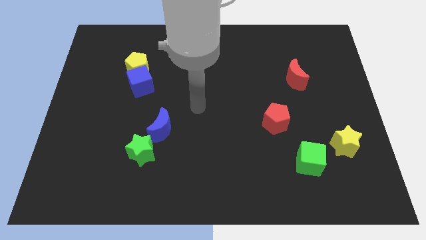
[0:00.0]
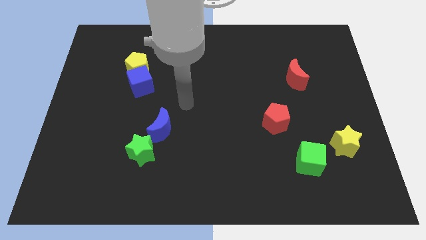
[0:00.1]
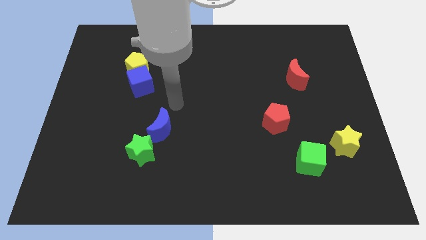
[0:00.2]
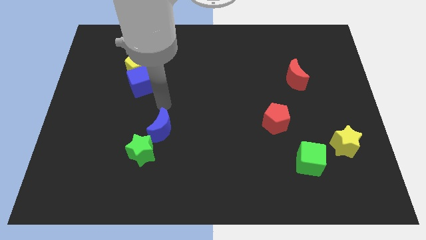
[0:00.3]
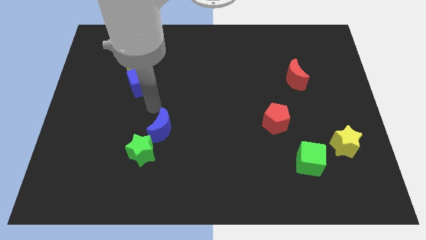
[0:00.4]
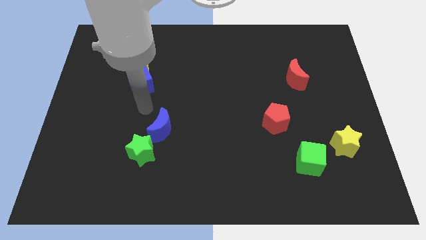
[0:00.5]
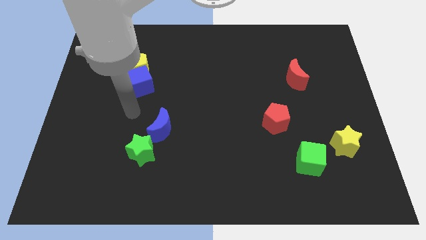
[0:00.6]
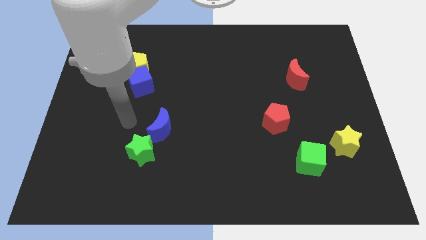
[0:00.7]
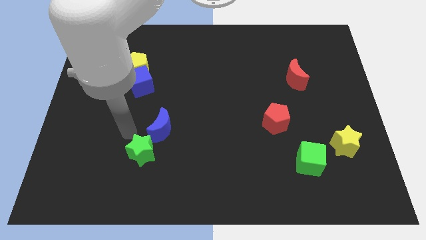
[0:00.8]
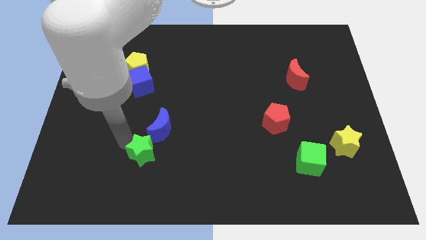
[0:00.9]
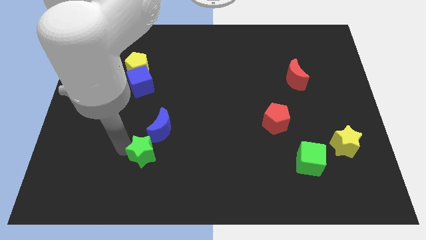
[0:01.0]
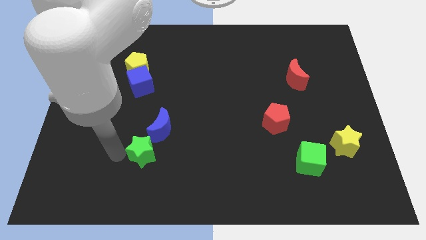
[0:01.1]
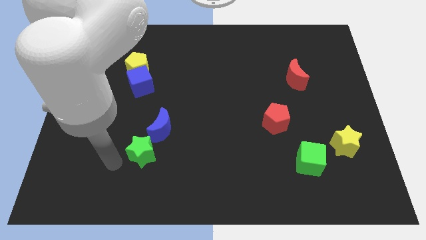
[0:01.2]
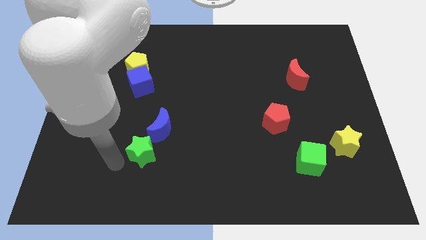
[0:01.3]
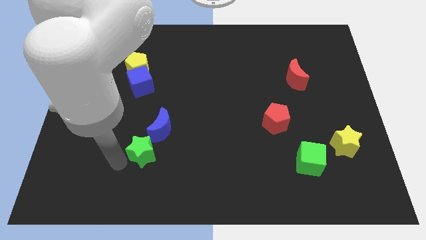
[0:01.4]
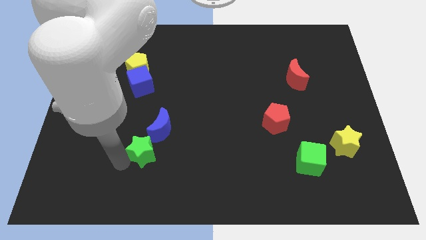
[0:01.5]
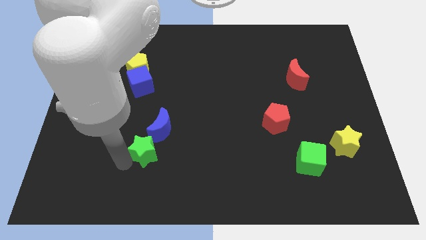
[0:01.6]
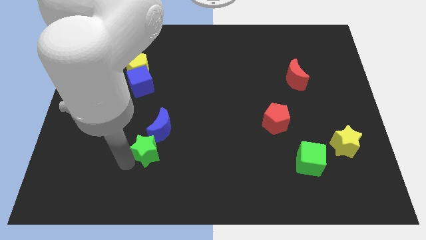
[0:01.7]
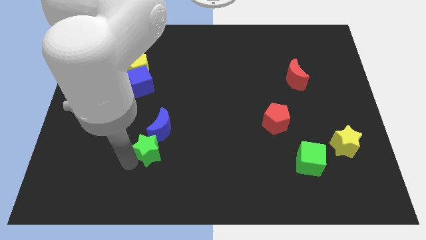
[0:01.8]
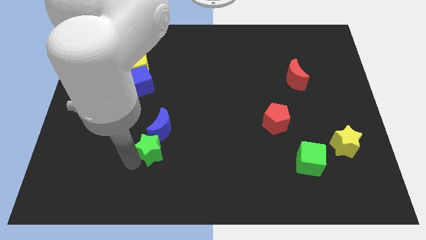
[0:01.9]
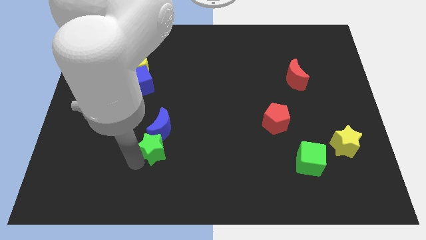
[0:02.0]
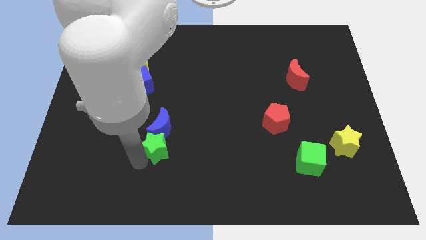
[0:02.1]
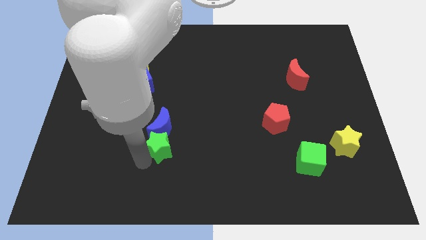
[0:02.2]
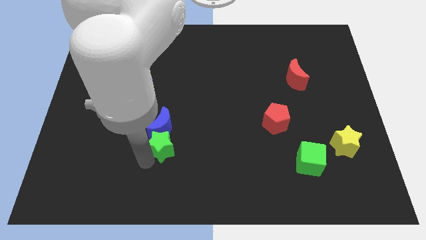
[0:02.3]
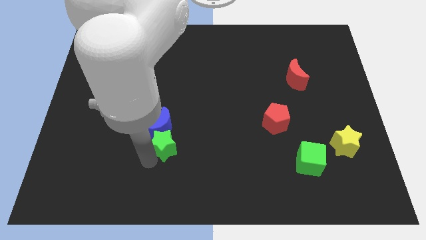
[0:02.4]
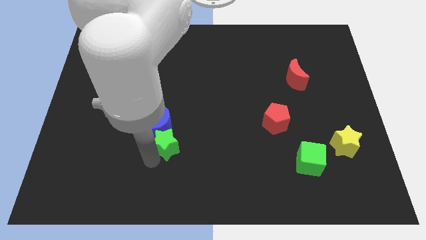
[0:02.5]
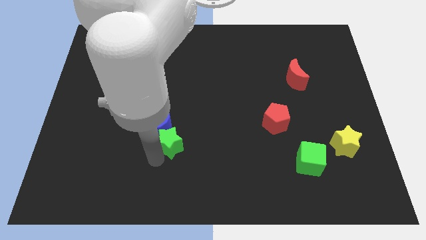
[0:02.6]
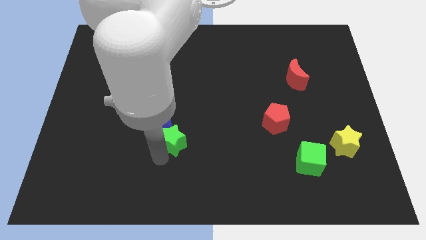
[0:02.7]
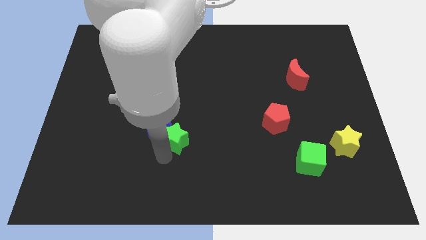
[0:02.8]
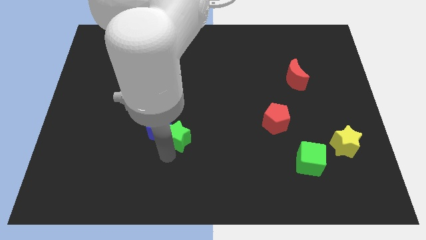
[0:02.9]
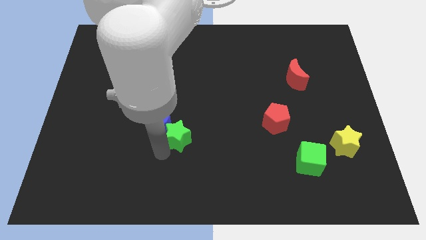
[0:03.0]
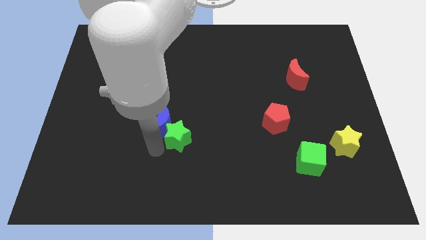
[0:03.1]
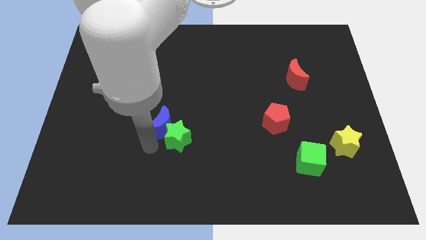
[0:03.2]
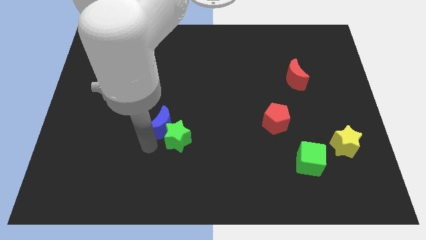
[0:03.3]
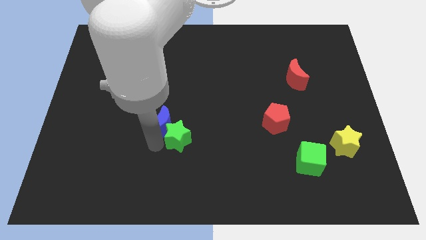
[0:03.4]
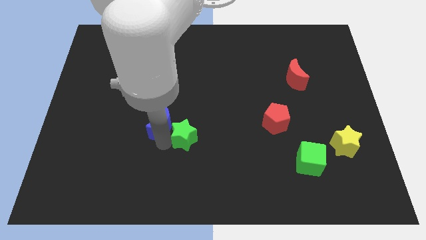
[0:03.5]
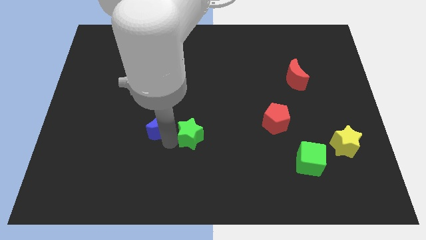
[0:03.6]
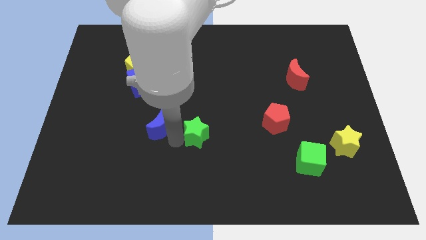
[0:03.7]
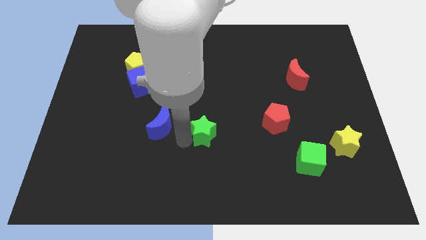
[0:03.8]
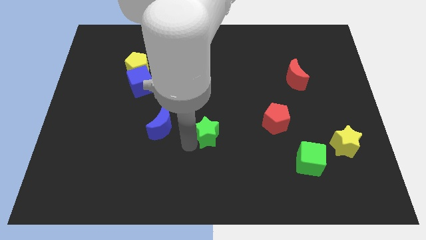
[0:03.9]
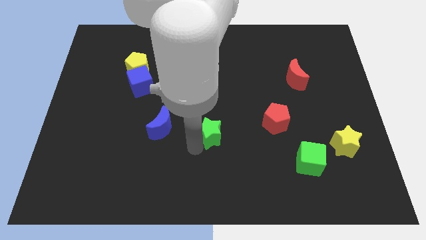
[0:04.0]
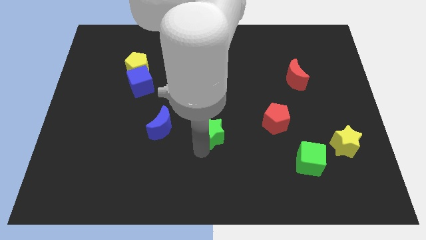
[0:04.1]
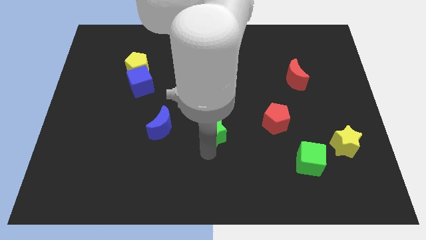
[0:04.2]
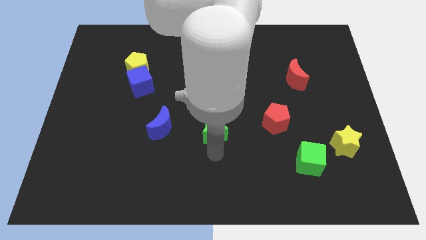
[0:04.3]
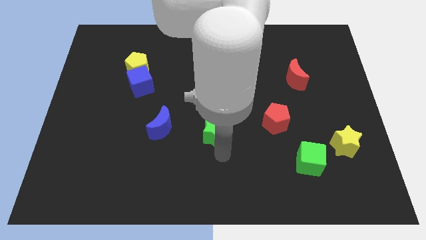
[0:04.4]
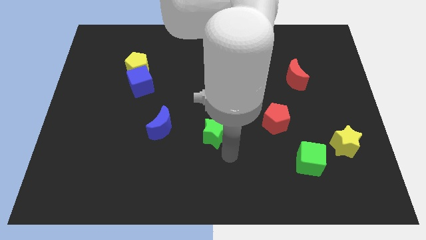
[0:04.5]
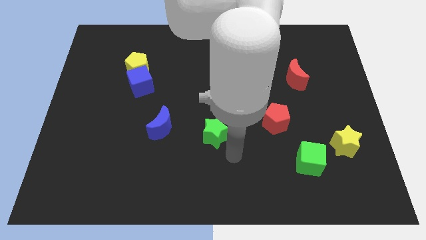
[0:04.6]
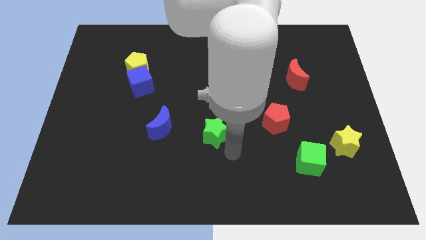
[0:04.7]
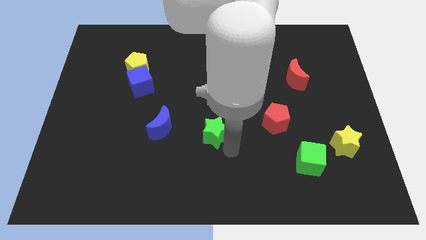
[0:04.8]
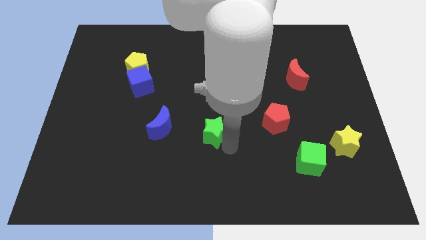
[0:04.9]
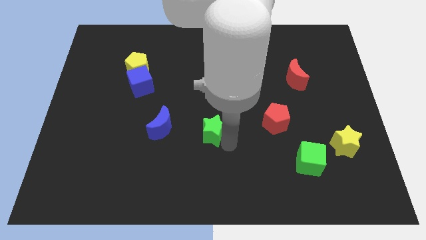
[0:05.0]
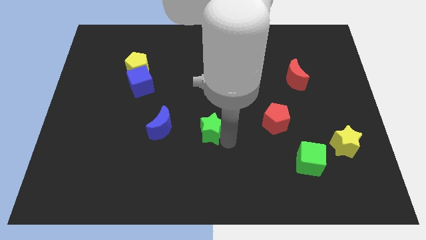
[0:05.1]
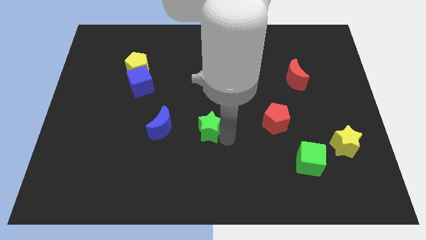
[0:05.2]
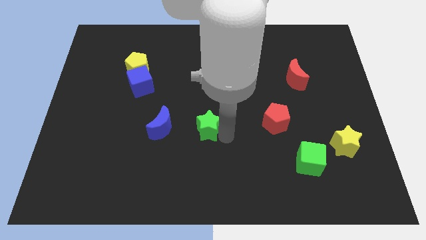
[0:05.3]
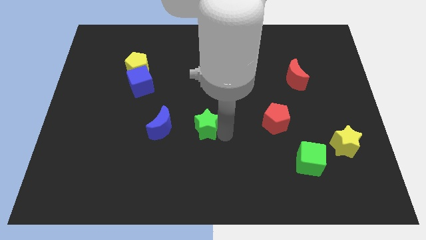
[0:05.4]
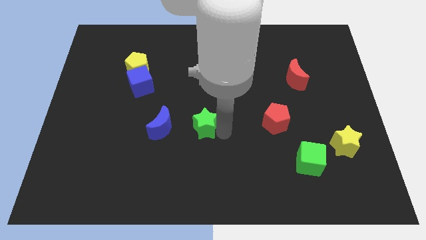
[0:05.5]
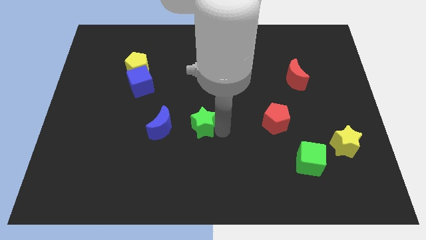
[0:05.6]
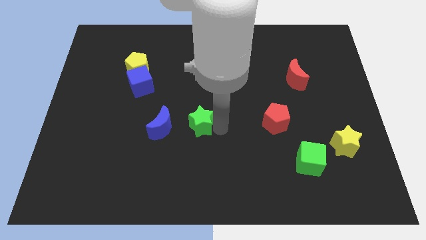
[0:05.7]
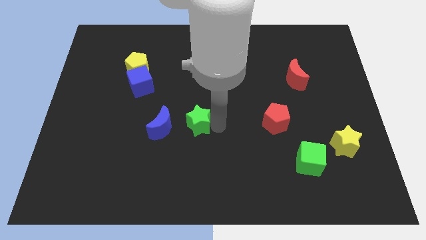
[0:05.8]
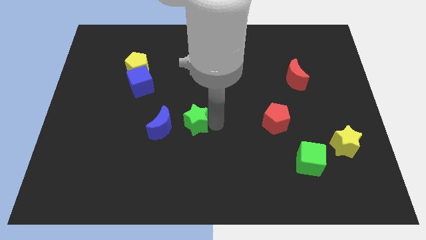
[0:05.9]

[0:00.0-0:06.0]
push the green star to the top right of the blue moon

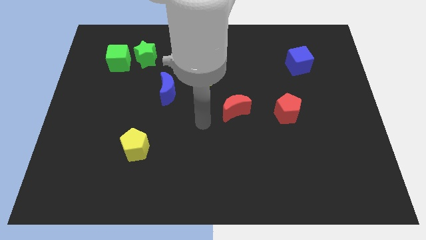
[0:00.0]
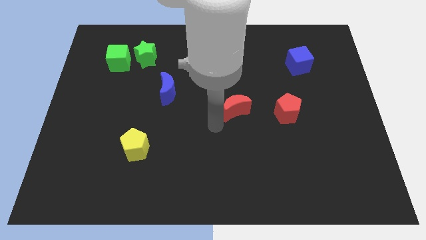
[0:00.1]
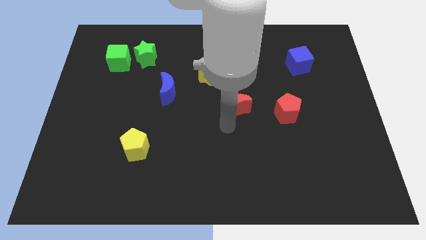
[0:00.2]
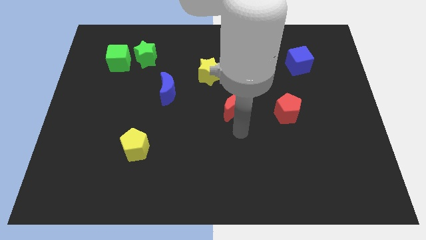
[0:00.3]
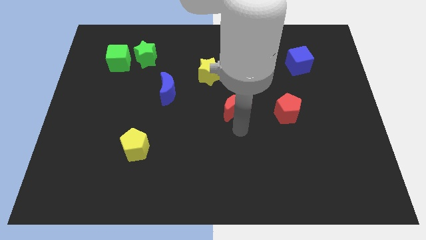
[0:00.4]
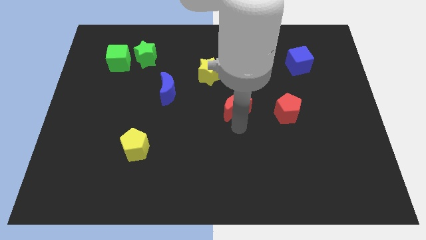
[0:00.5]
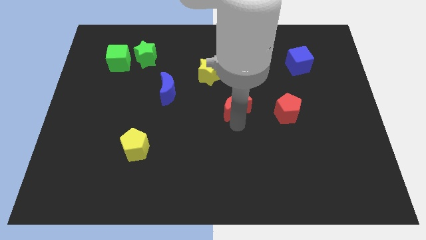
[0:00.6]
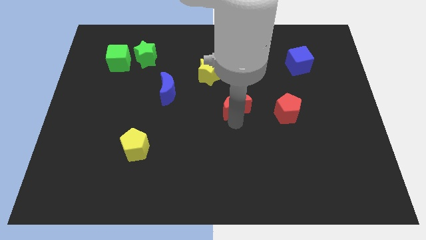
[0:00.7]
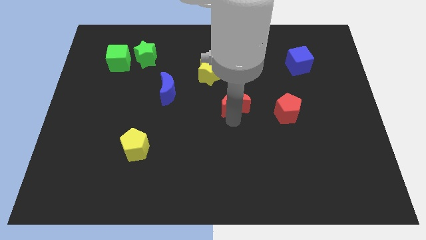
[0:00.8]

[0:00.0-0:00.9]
slide the red moon to the bottom right of the yellow star

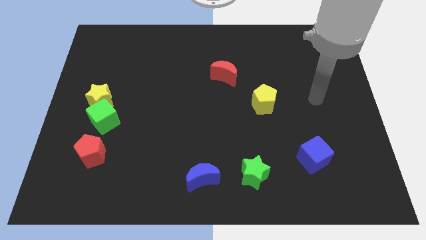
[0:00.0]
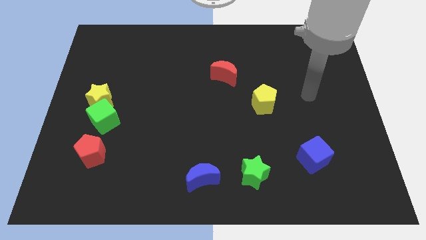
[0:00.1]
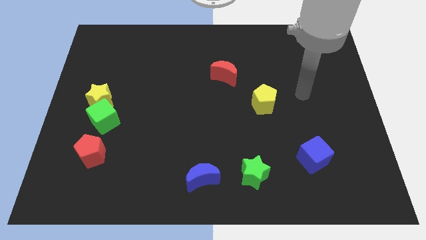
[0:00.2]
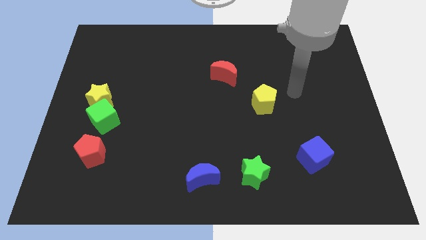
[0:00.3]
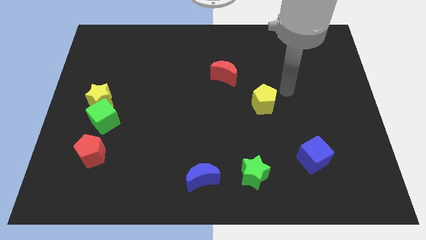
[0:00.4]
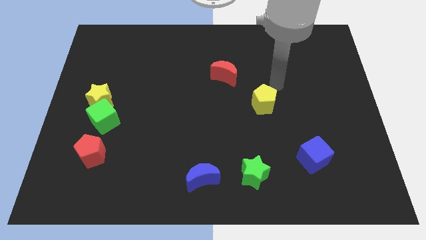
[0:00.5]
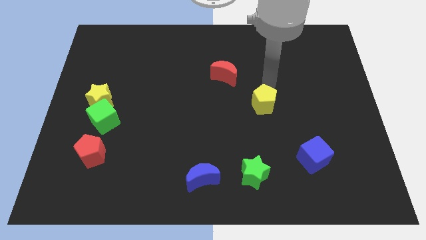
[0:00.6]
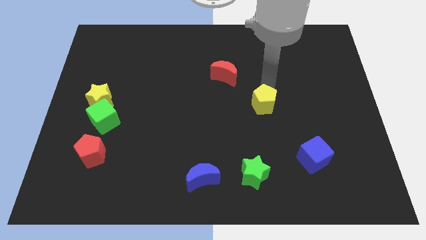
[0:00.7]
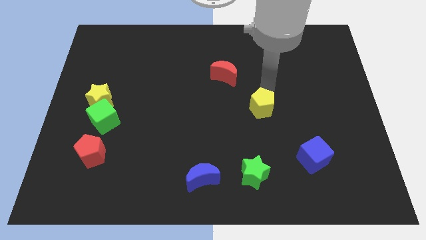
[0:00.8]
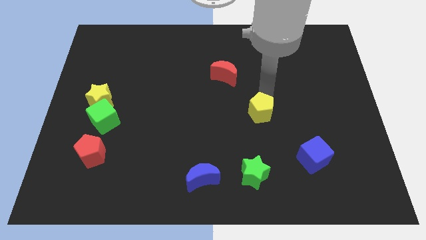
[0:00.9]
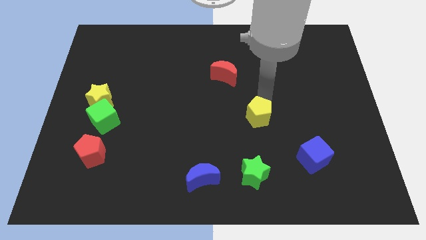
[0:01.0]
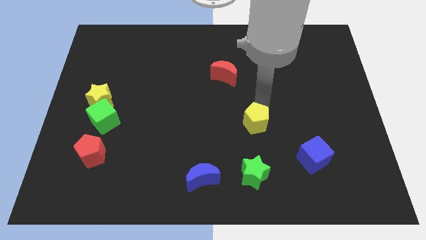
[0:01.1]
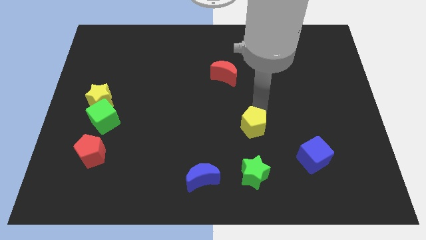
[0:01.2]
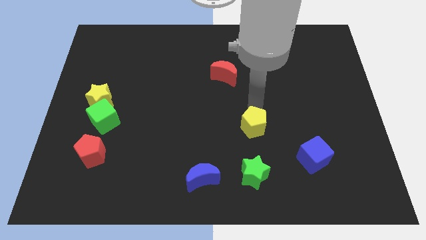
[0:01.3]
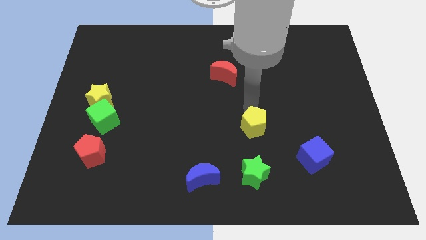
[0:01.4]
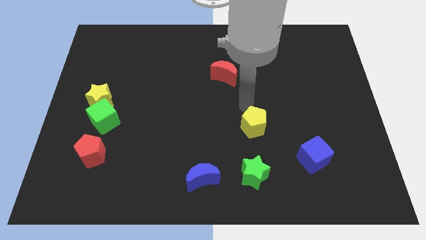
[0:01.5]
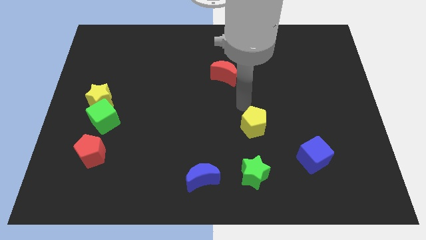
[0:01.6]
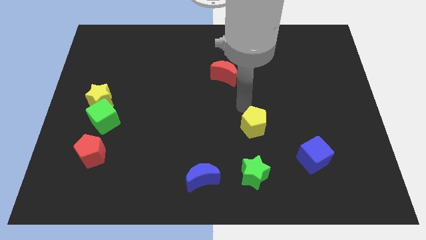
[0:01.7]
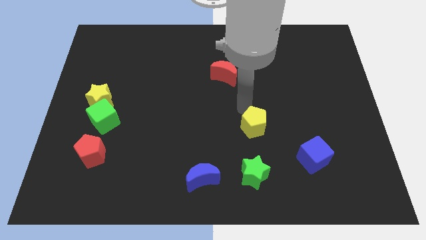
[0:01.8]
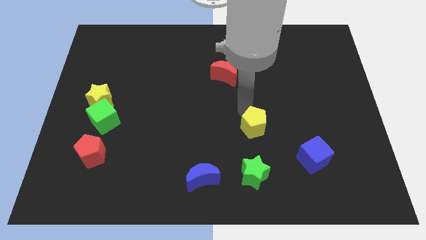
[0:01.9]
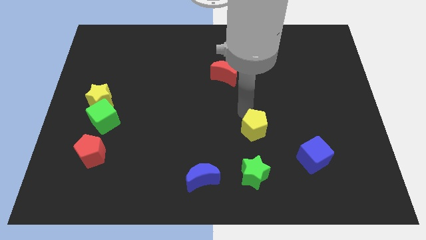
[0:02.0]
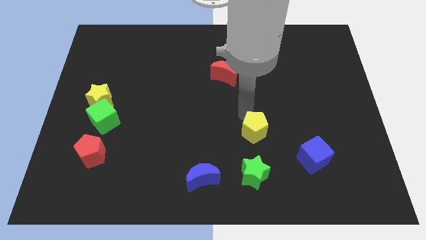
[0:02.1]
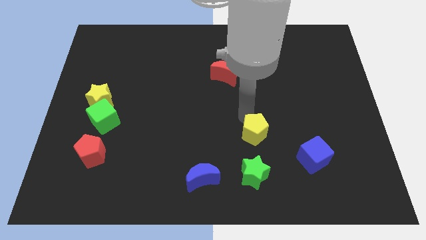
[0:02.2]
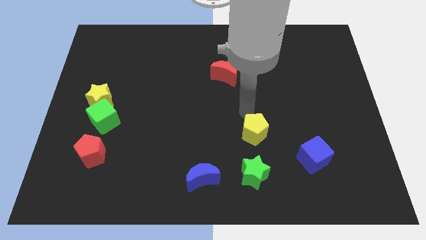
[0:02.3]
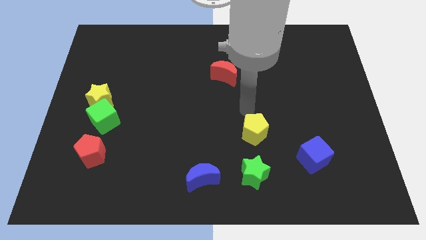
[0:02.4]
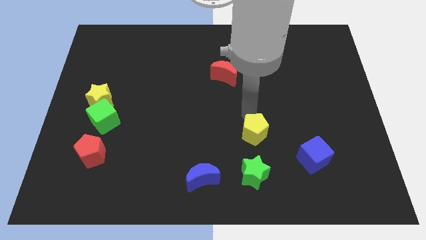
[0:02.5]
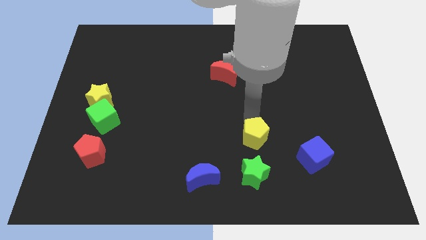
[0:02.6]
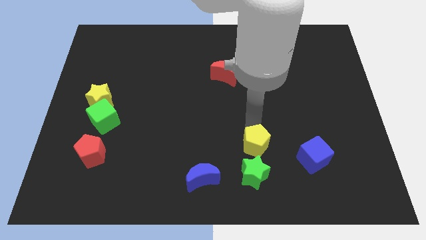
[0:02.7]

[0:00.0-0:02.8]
push the yellow pentagon just left of the blue cube
